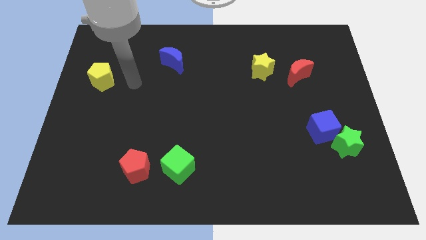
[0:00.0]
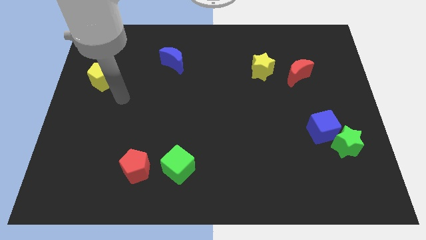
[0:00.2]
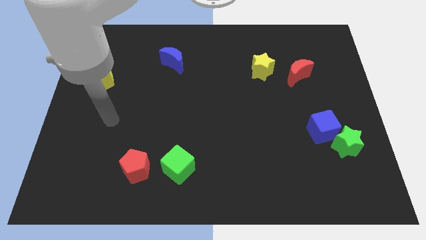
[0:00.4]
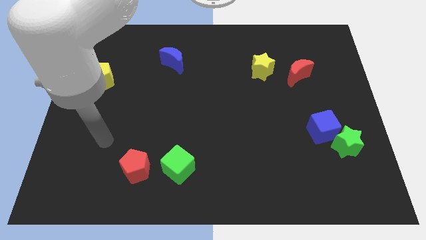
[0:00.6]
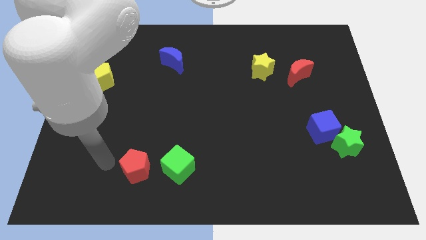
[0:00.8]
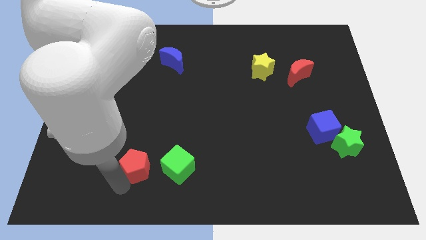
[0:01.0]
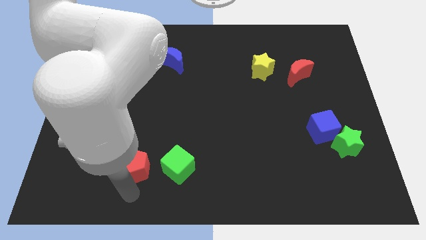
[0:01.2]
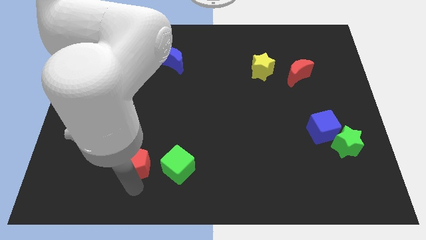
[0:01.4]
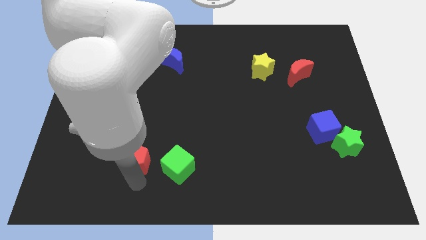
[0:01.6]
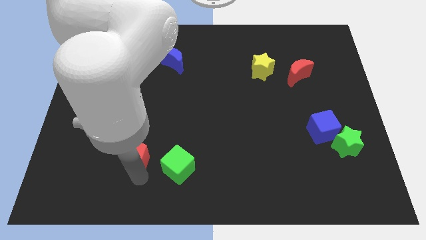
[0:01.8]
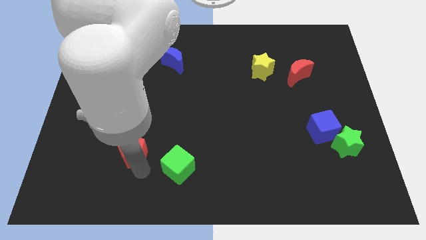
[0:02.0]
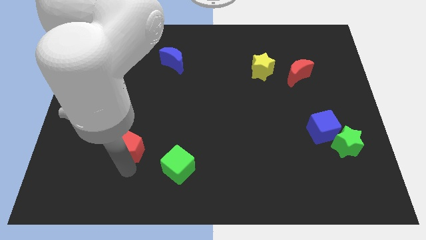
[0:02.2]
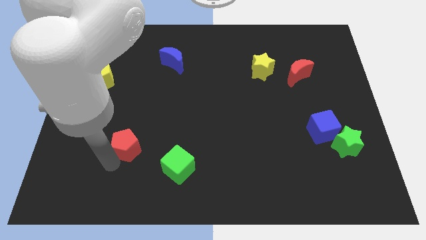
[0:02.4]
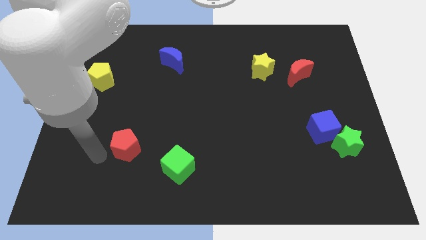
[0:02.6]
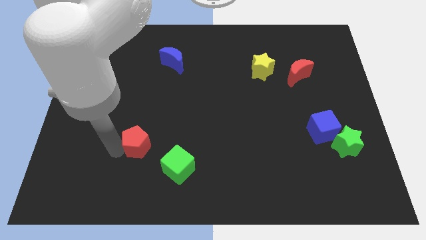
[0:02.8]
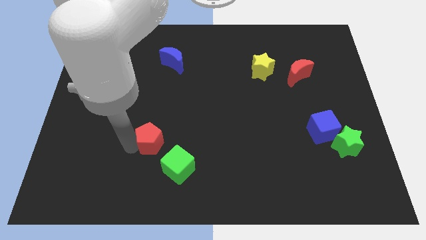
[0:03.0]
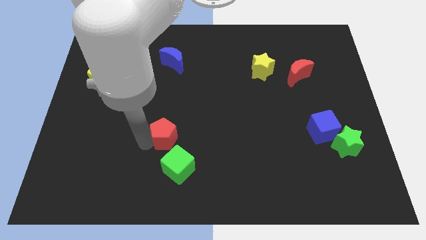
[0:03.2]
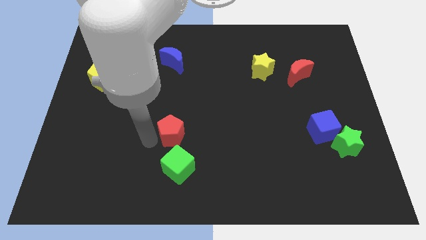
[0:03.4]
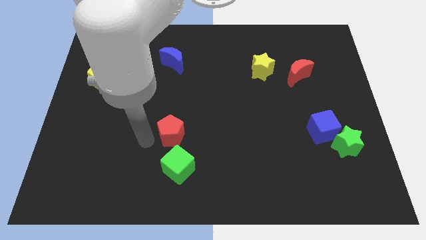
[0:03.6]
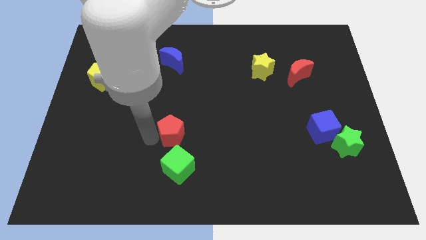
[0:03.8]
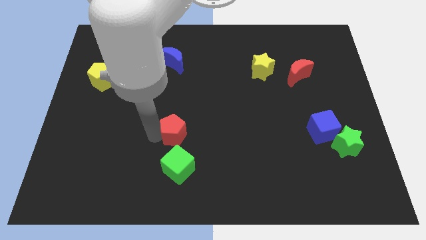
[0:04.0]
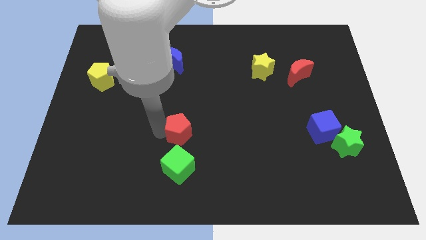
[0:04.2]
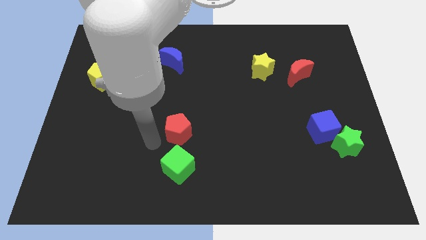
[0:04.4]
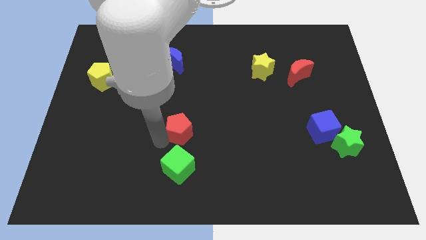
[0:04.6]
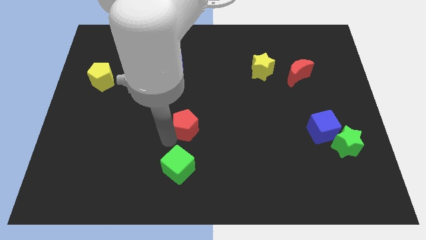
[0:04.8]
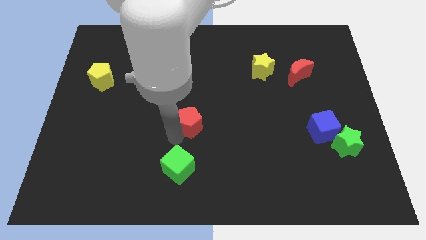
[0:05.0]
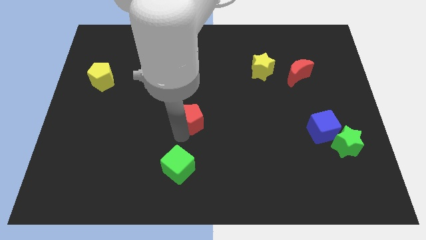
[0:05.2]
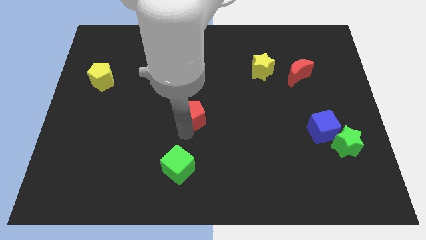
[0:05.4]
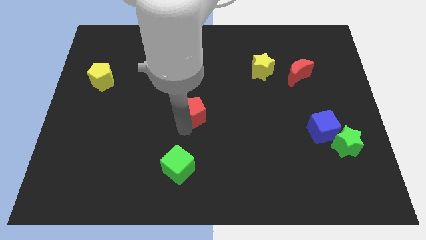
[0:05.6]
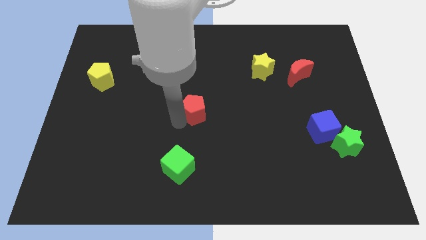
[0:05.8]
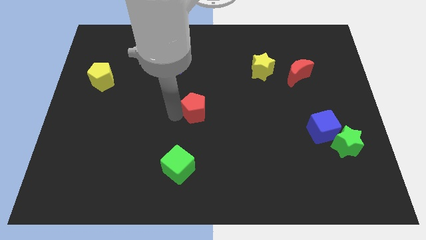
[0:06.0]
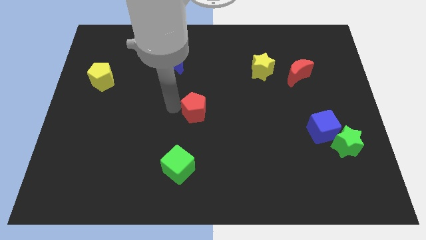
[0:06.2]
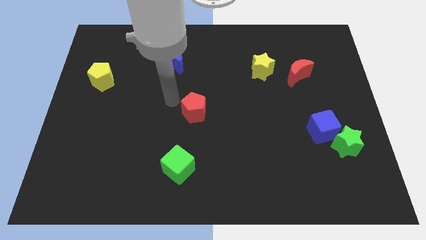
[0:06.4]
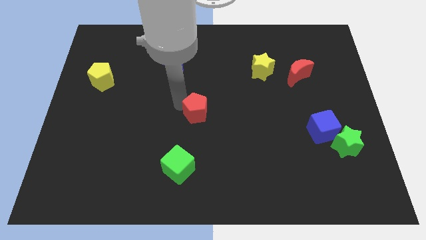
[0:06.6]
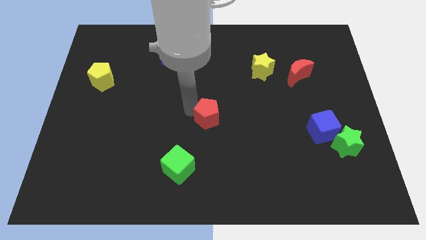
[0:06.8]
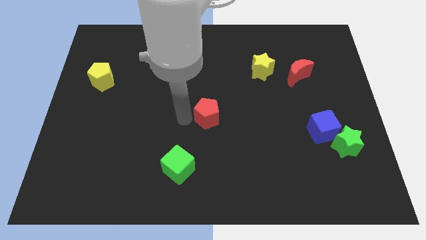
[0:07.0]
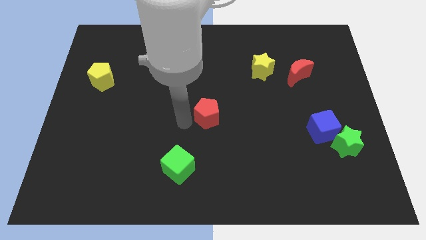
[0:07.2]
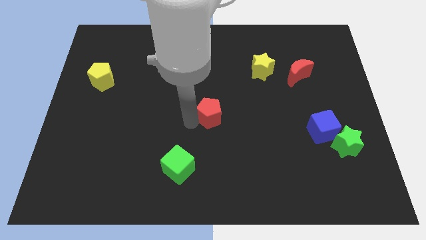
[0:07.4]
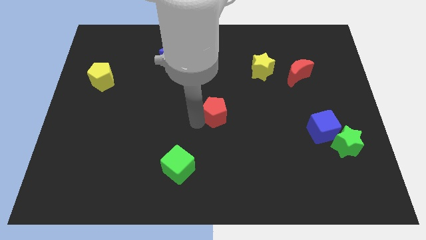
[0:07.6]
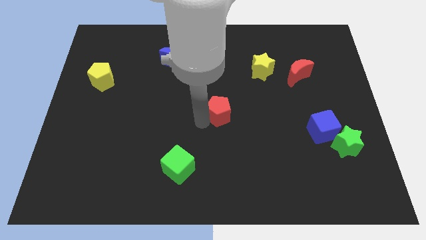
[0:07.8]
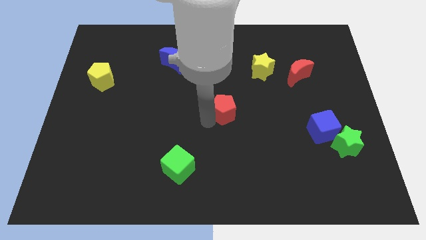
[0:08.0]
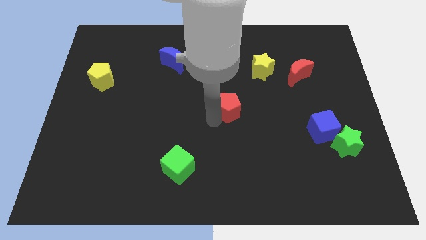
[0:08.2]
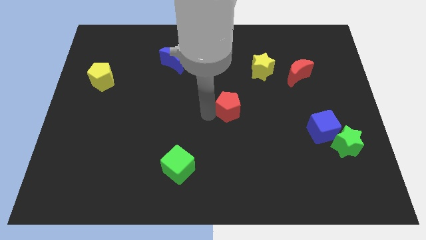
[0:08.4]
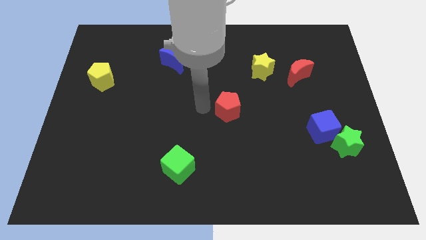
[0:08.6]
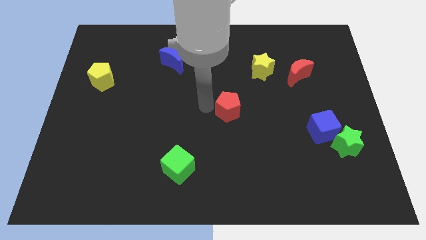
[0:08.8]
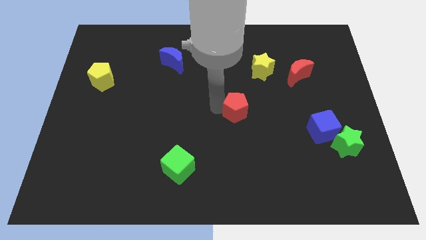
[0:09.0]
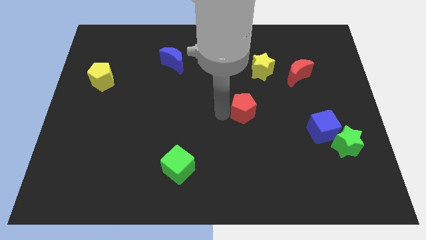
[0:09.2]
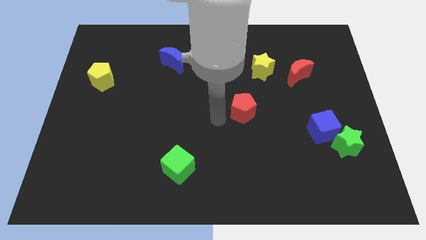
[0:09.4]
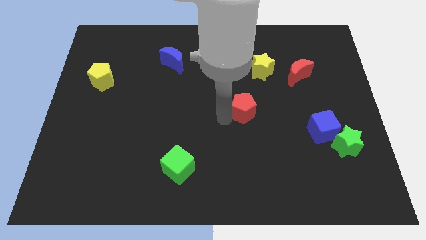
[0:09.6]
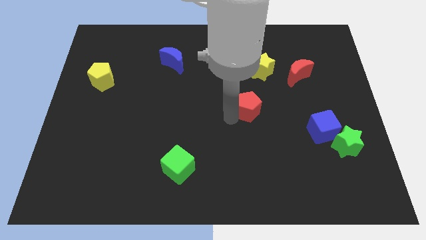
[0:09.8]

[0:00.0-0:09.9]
slide the red pentagon below the yellow star

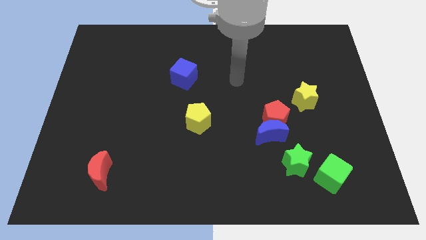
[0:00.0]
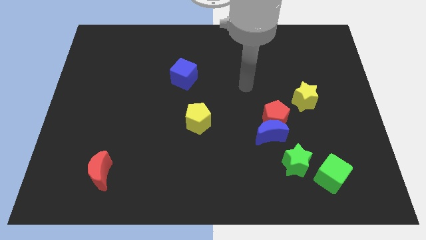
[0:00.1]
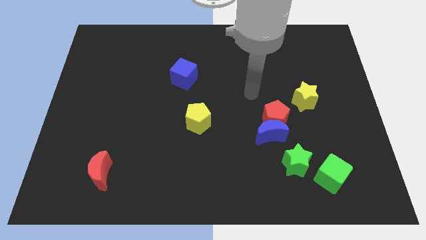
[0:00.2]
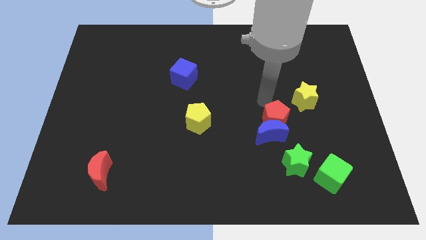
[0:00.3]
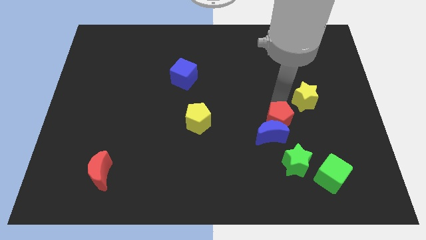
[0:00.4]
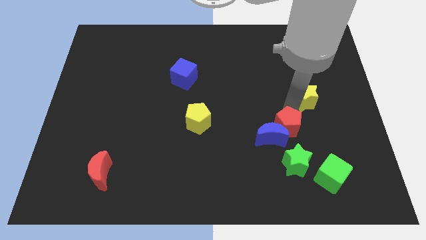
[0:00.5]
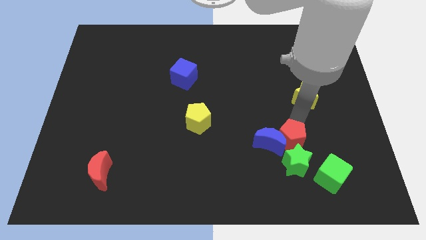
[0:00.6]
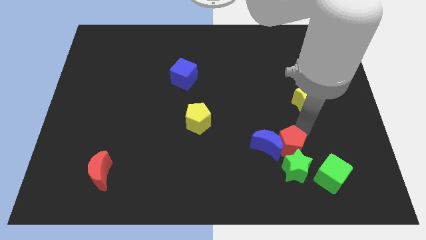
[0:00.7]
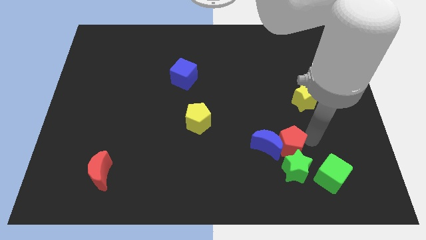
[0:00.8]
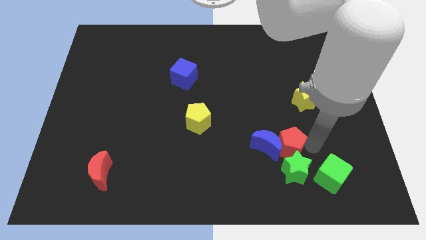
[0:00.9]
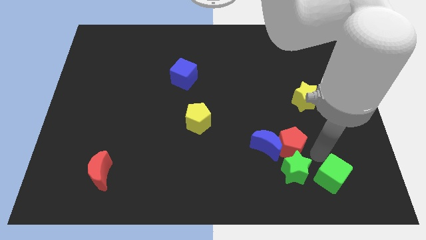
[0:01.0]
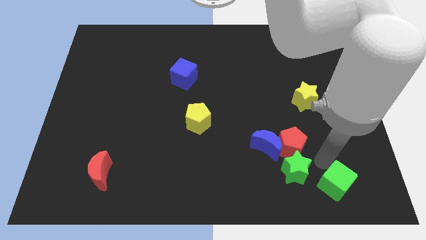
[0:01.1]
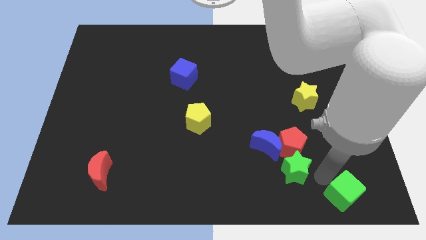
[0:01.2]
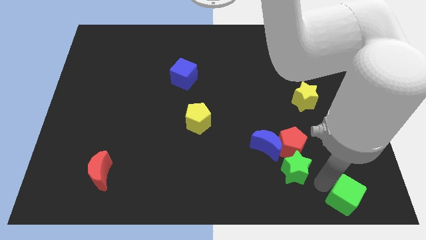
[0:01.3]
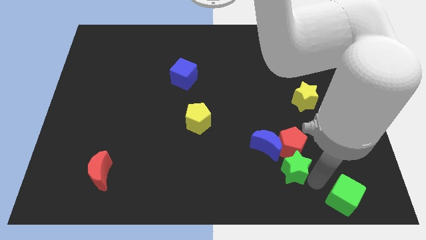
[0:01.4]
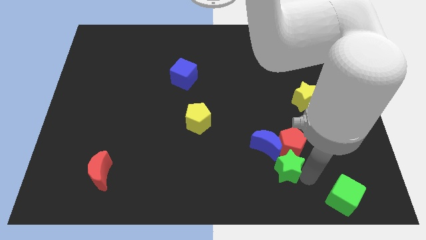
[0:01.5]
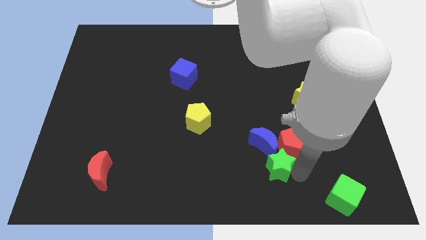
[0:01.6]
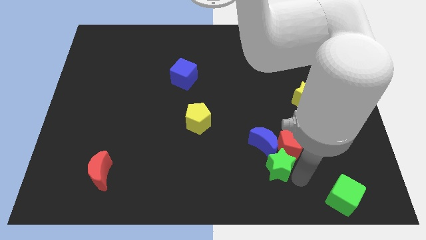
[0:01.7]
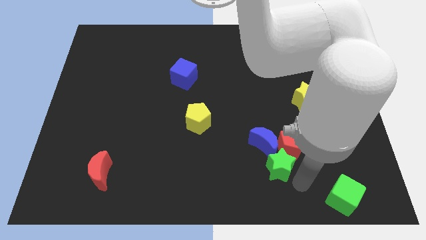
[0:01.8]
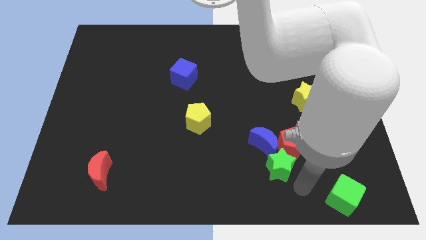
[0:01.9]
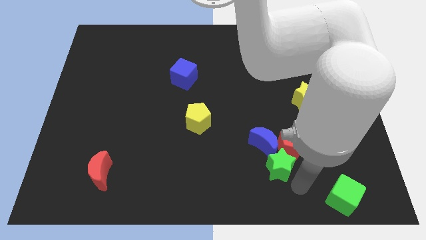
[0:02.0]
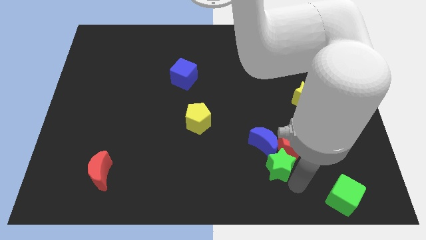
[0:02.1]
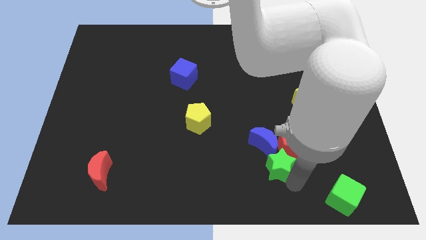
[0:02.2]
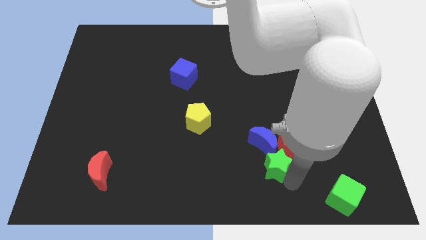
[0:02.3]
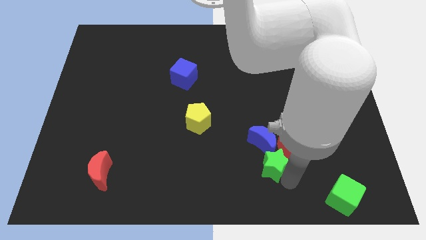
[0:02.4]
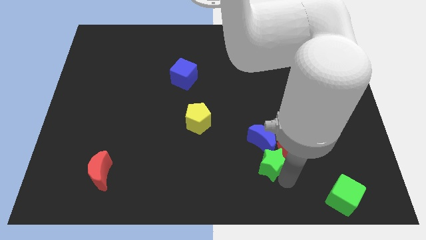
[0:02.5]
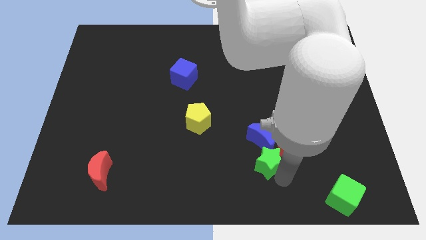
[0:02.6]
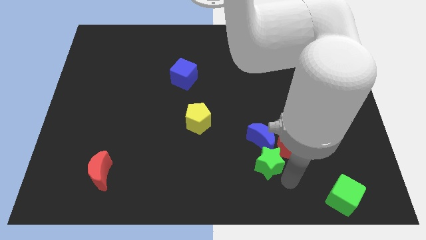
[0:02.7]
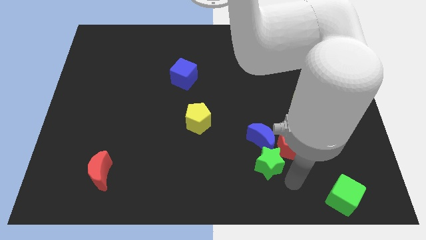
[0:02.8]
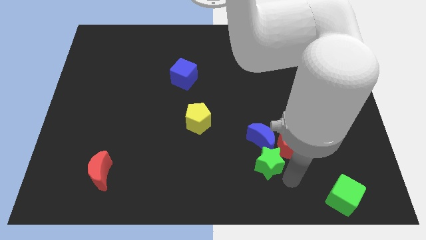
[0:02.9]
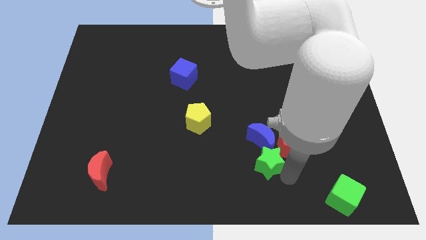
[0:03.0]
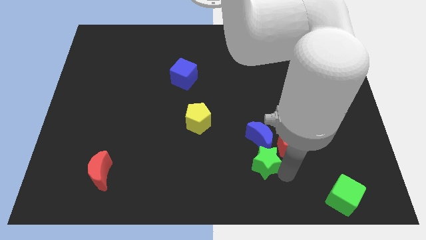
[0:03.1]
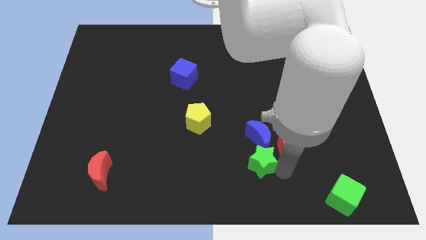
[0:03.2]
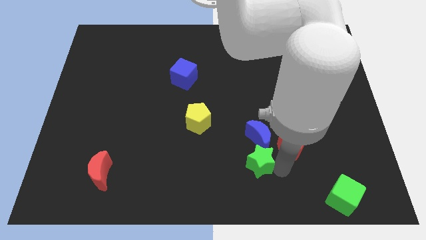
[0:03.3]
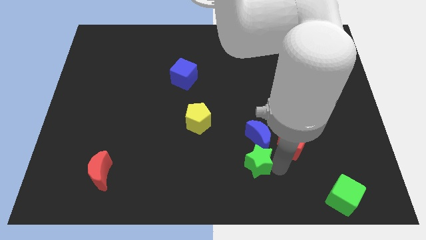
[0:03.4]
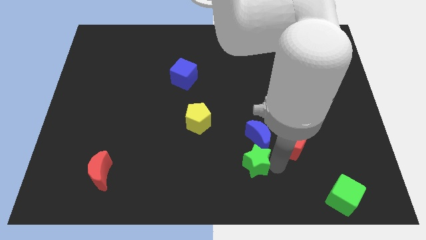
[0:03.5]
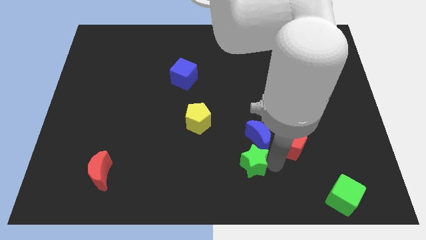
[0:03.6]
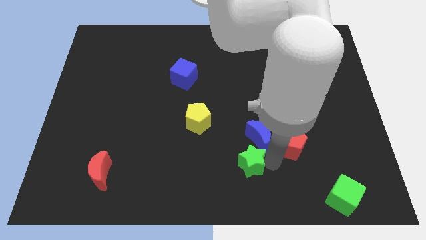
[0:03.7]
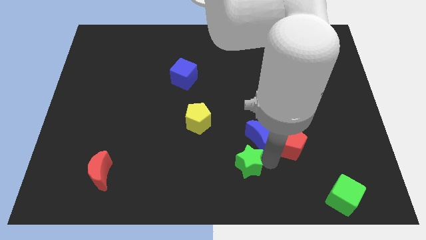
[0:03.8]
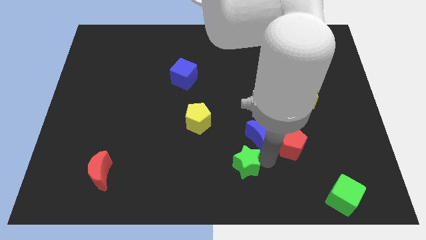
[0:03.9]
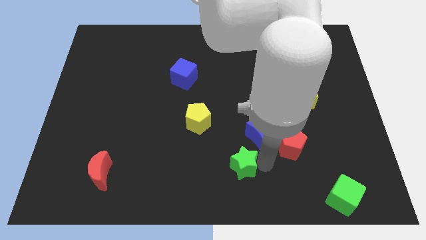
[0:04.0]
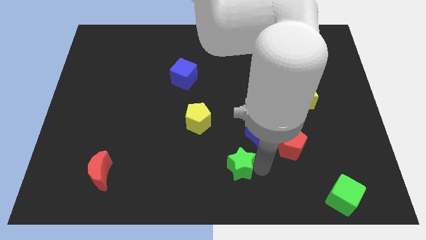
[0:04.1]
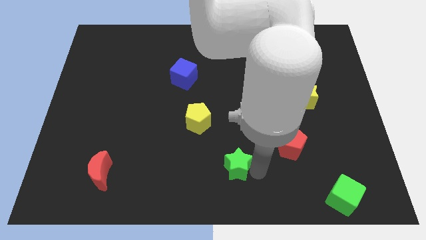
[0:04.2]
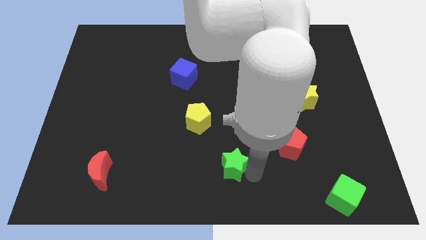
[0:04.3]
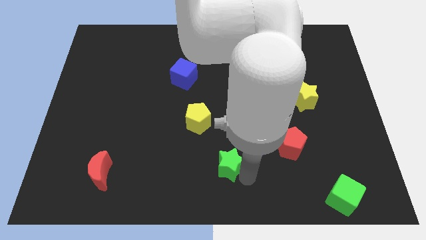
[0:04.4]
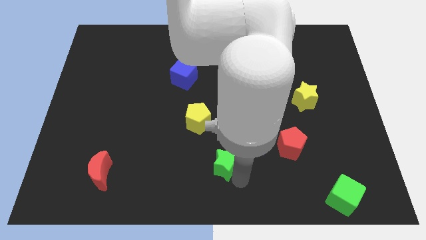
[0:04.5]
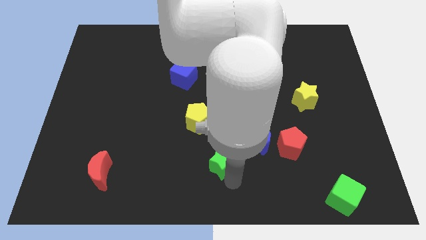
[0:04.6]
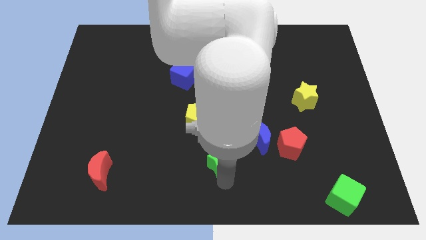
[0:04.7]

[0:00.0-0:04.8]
push the green star to the bottom right of the yellow pentagon
